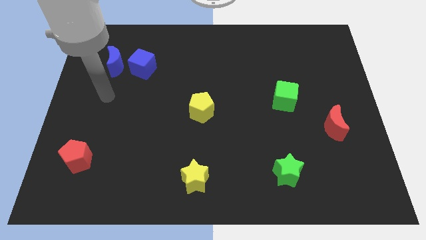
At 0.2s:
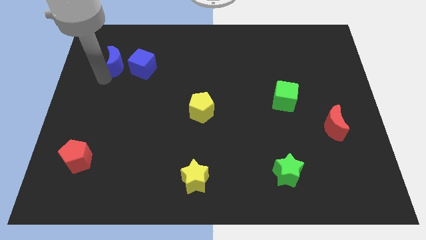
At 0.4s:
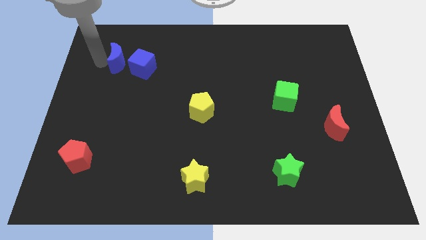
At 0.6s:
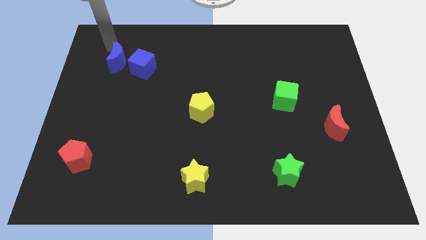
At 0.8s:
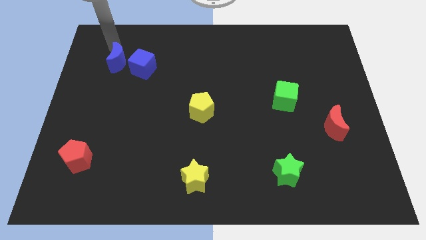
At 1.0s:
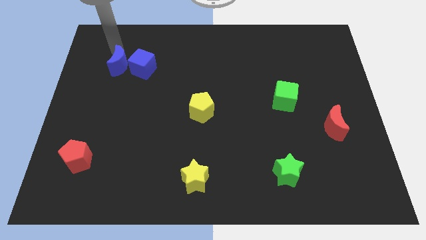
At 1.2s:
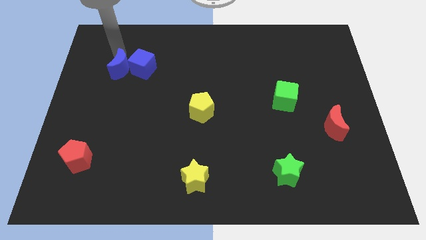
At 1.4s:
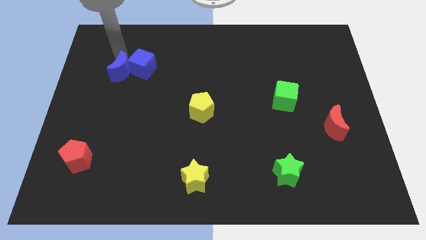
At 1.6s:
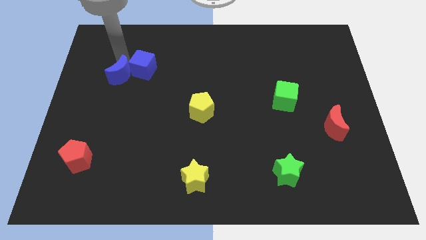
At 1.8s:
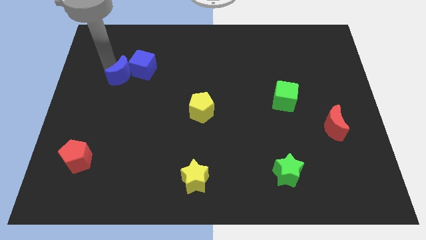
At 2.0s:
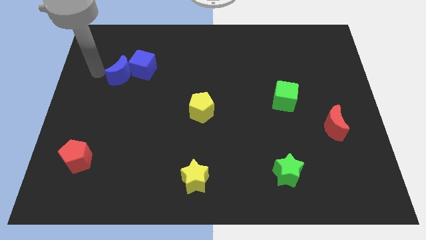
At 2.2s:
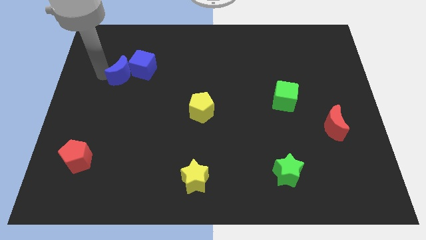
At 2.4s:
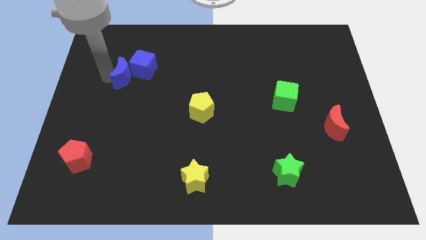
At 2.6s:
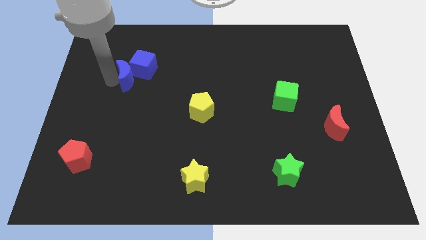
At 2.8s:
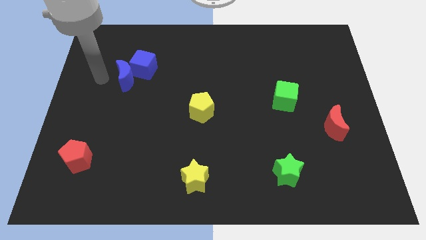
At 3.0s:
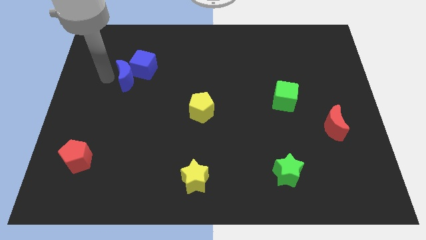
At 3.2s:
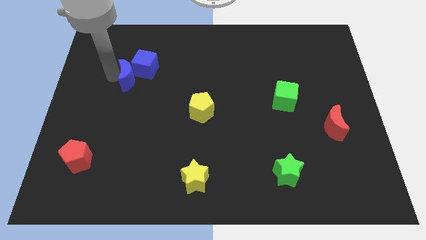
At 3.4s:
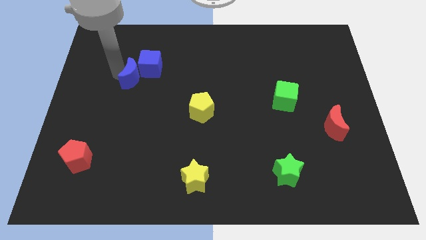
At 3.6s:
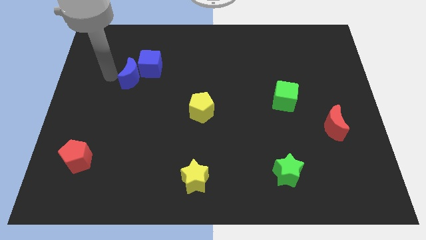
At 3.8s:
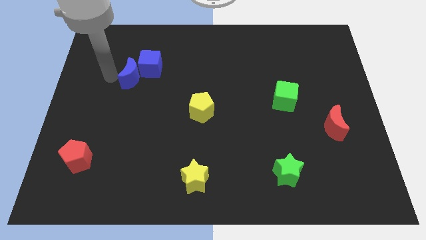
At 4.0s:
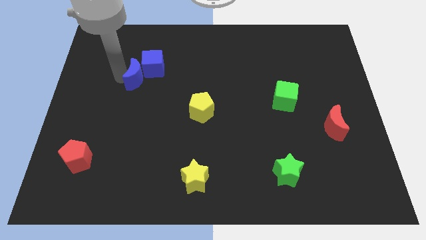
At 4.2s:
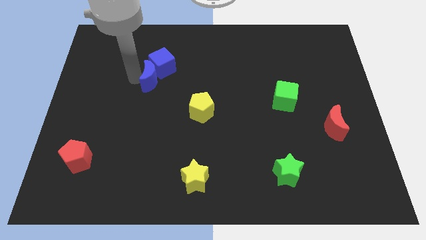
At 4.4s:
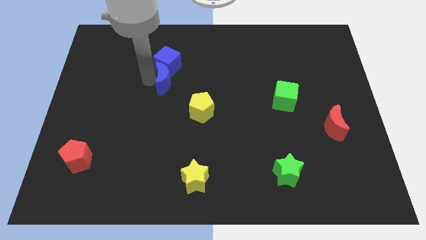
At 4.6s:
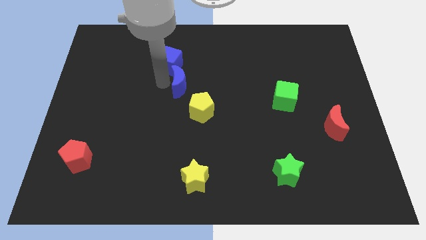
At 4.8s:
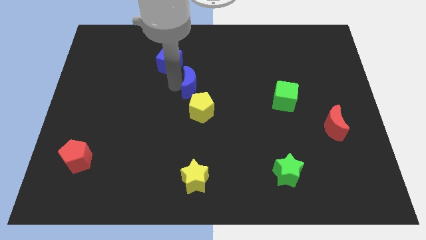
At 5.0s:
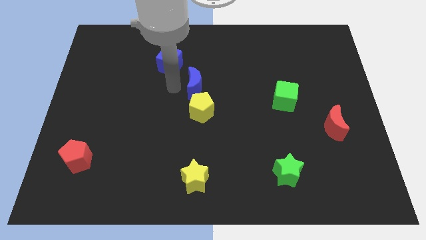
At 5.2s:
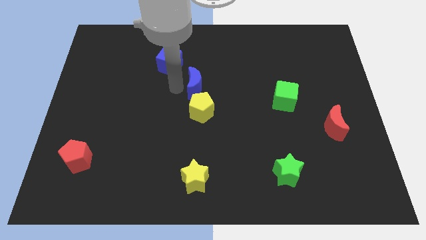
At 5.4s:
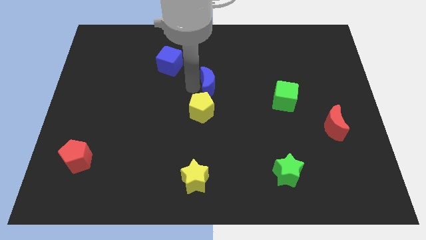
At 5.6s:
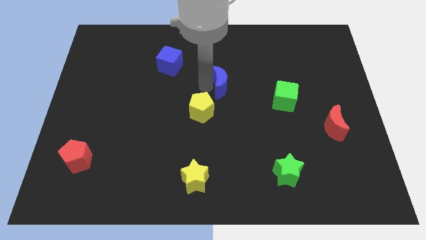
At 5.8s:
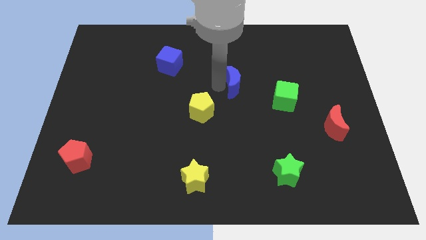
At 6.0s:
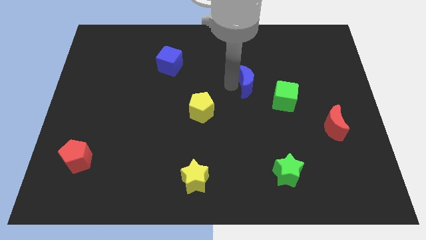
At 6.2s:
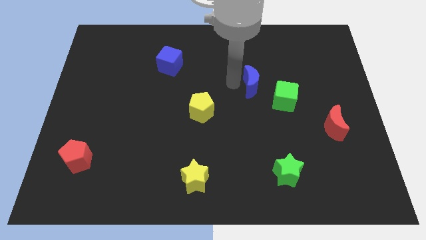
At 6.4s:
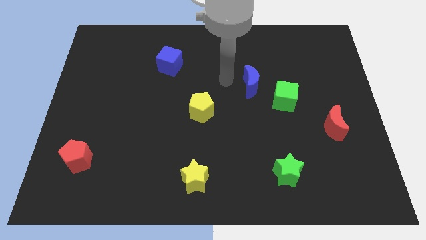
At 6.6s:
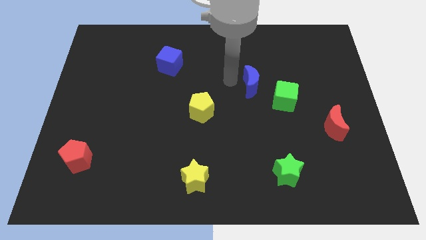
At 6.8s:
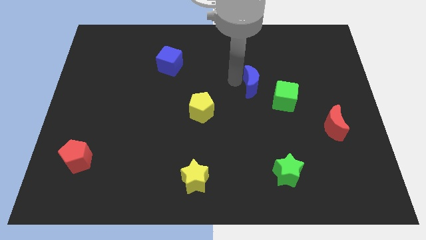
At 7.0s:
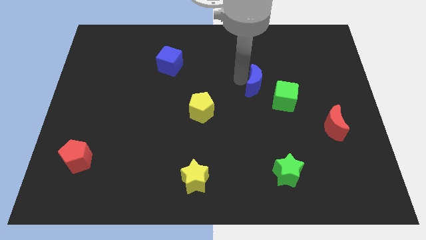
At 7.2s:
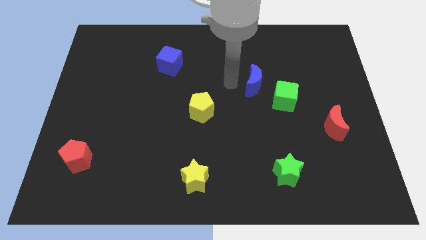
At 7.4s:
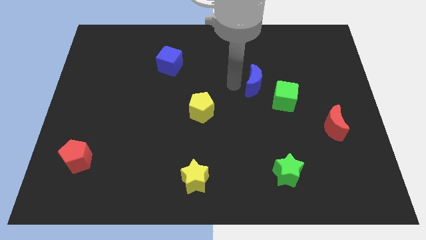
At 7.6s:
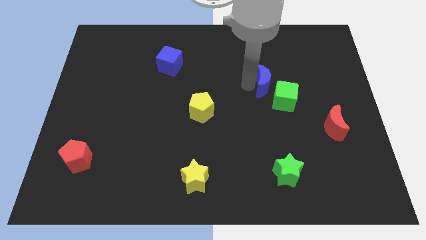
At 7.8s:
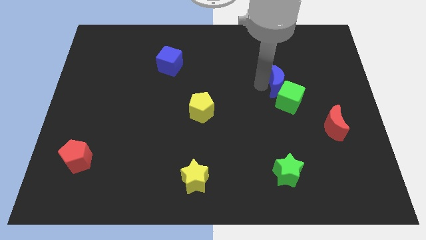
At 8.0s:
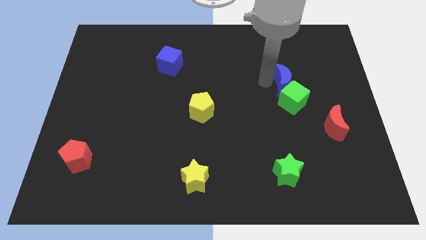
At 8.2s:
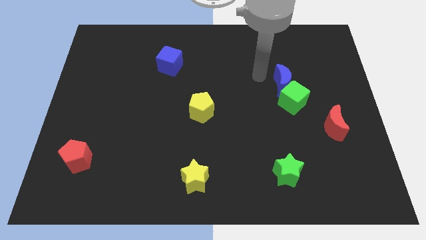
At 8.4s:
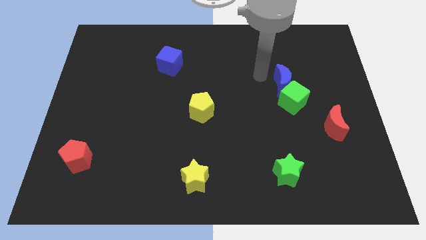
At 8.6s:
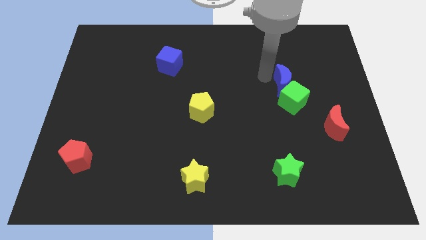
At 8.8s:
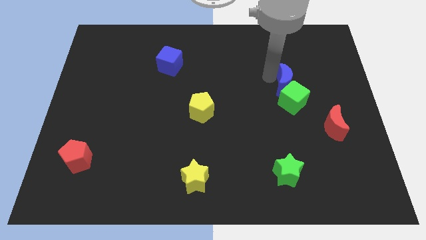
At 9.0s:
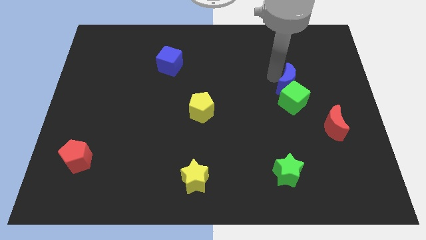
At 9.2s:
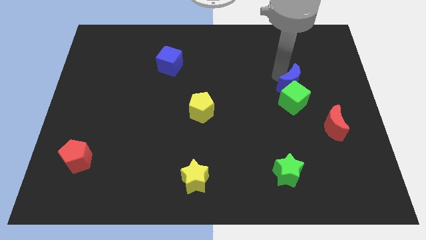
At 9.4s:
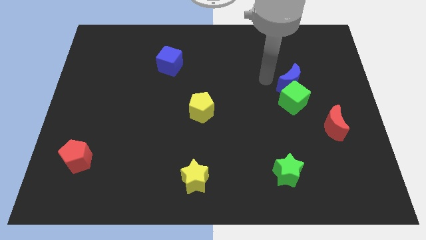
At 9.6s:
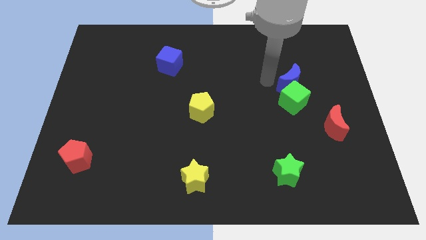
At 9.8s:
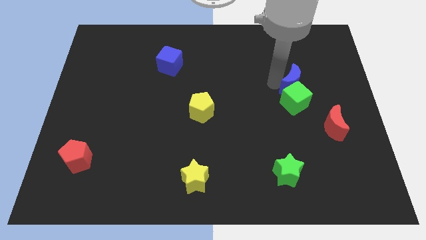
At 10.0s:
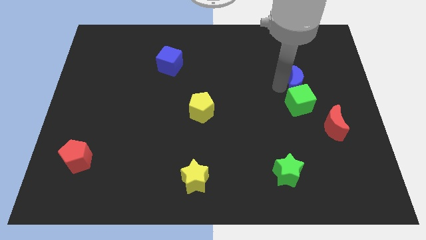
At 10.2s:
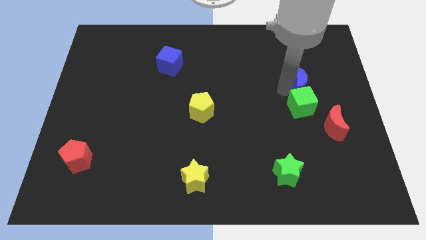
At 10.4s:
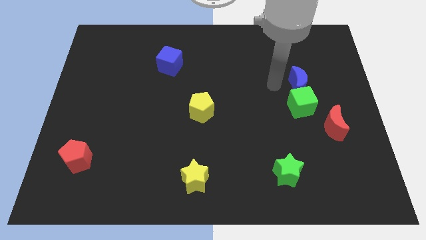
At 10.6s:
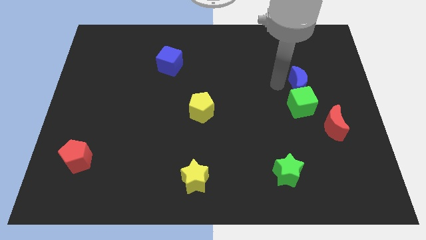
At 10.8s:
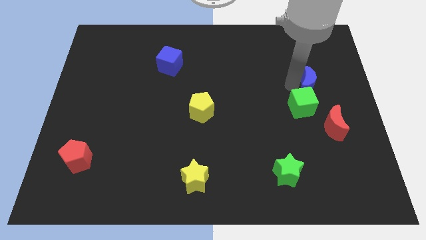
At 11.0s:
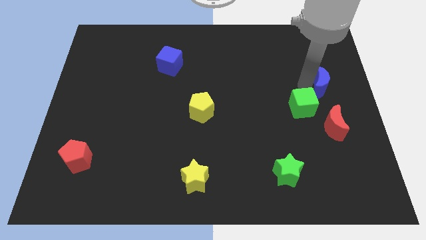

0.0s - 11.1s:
slide the blue moon to the right side

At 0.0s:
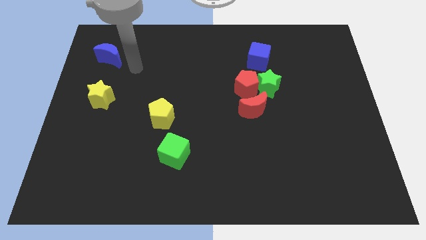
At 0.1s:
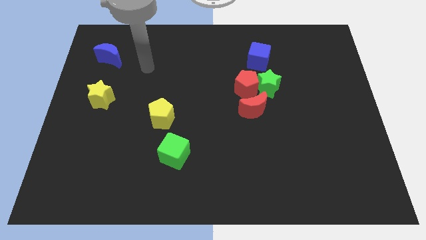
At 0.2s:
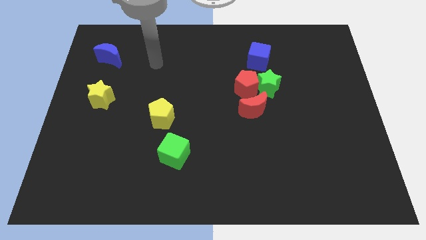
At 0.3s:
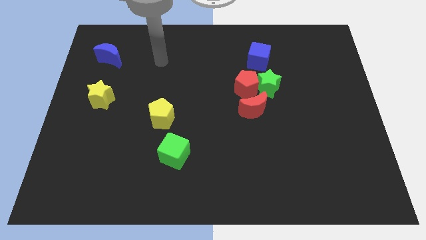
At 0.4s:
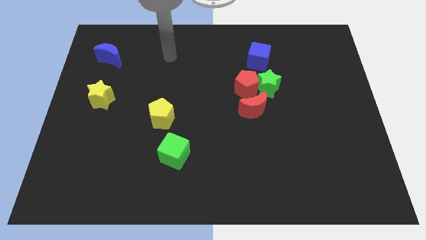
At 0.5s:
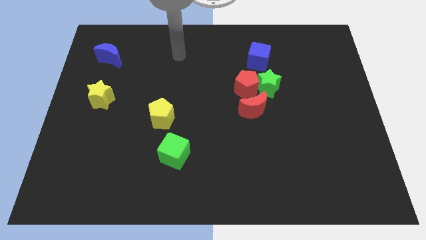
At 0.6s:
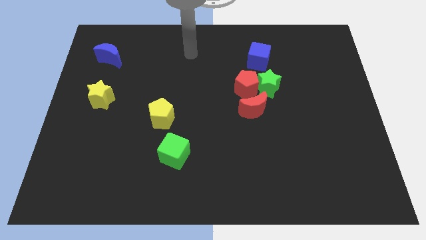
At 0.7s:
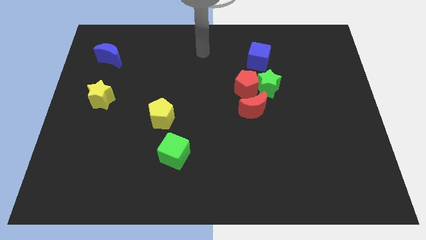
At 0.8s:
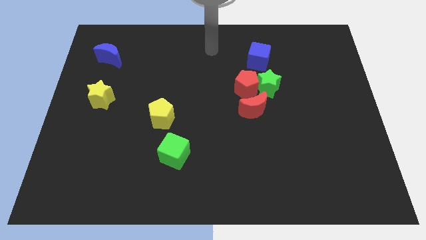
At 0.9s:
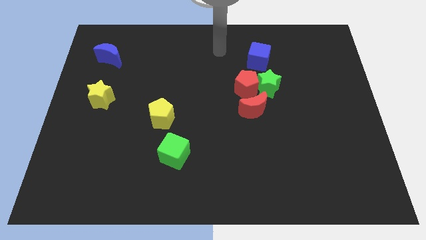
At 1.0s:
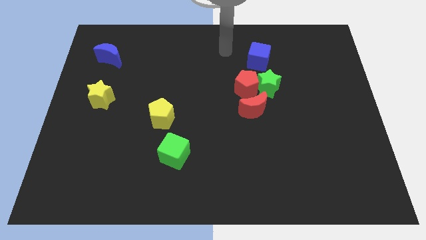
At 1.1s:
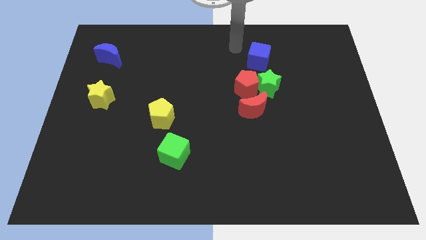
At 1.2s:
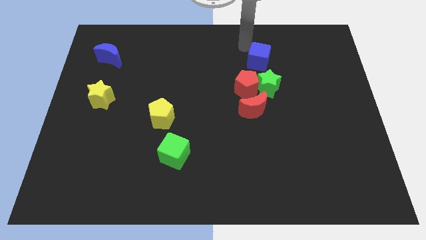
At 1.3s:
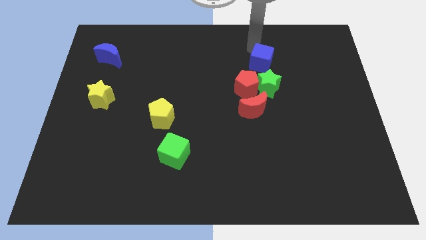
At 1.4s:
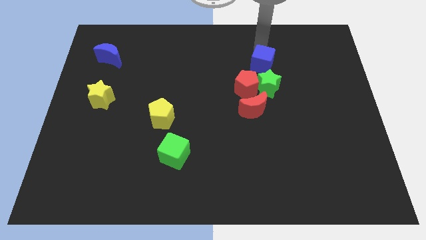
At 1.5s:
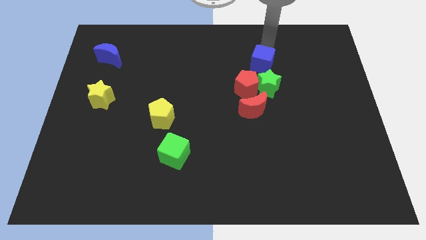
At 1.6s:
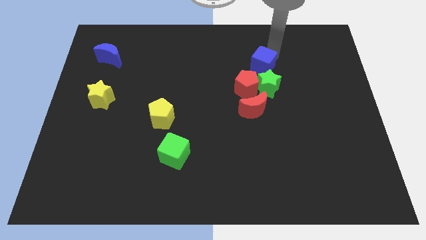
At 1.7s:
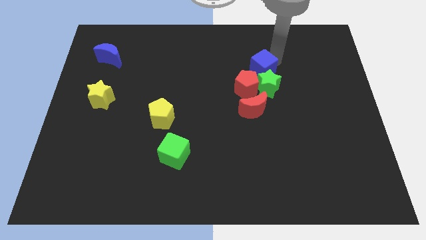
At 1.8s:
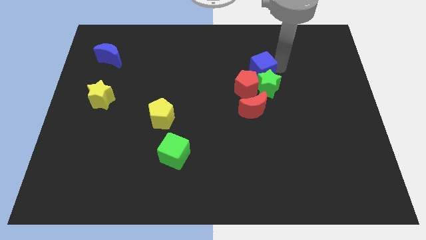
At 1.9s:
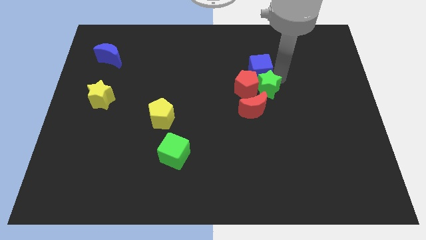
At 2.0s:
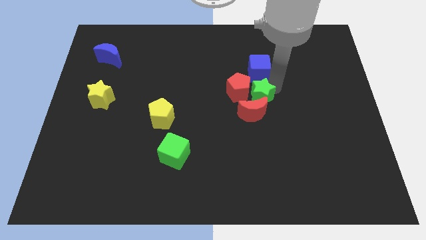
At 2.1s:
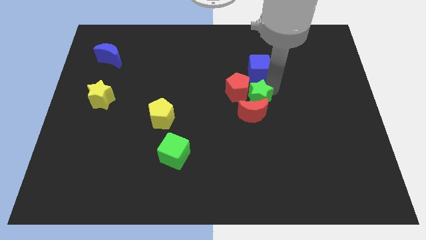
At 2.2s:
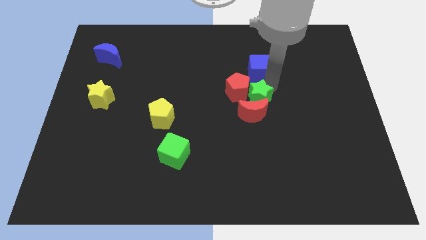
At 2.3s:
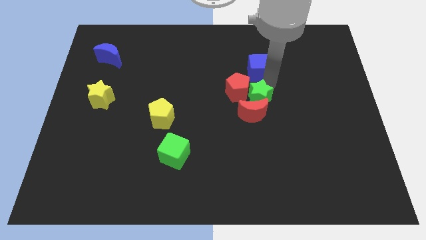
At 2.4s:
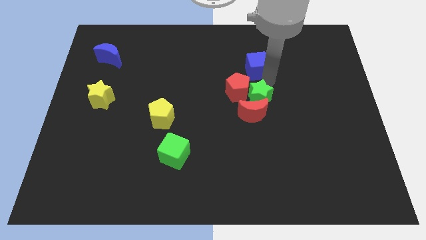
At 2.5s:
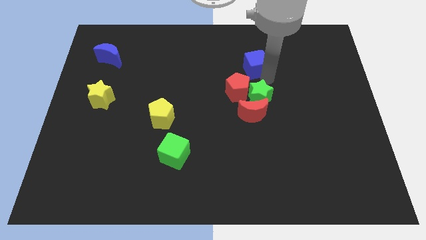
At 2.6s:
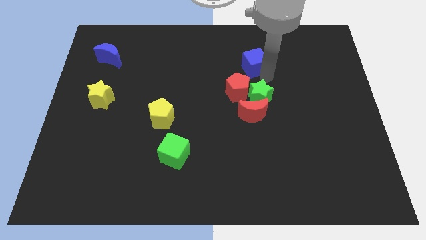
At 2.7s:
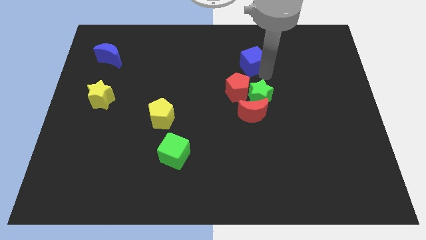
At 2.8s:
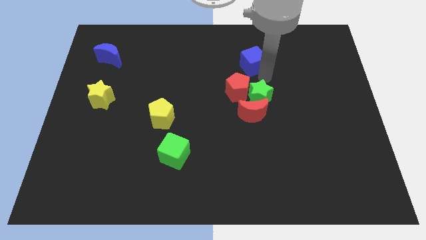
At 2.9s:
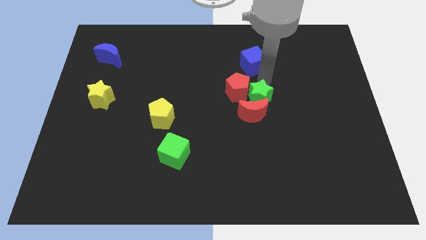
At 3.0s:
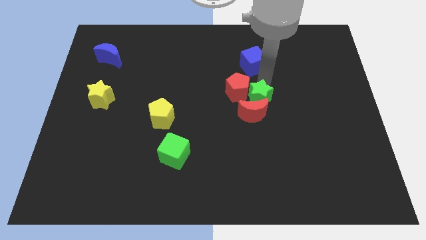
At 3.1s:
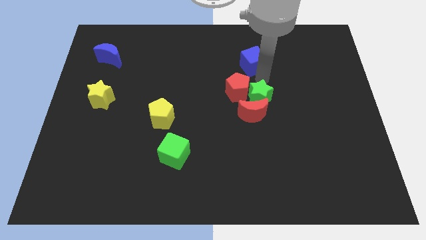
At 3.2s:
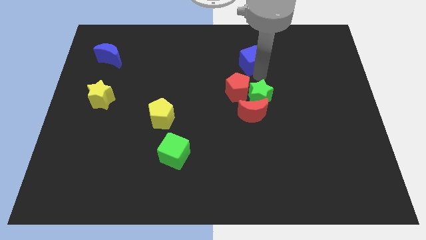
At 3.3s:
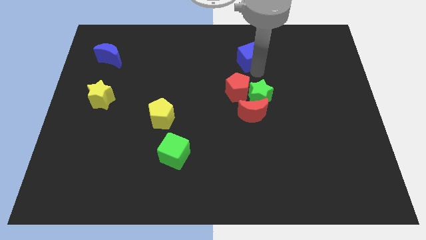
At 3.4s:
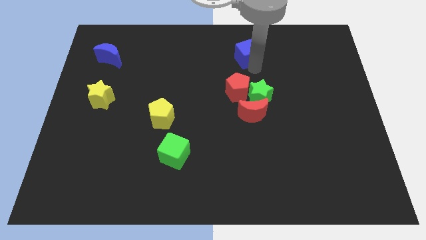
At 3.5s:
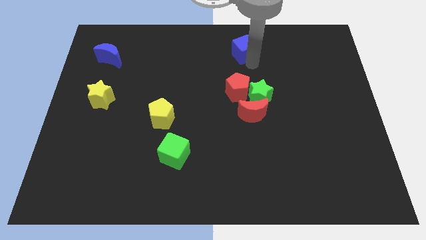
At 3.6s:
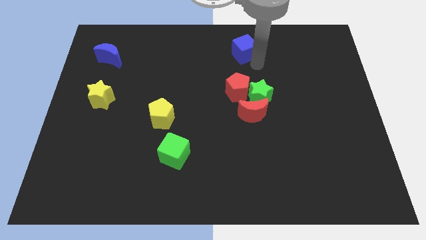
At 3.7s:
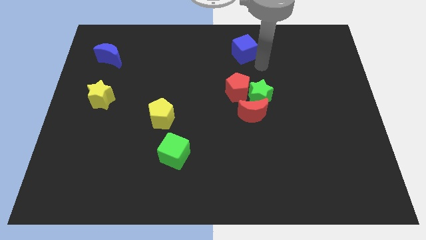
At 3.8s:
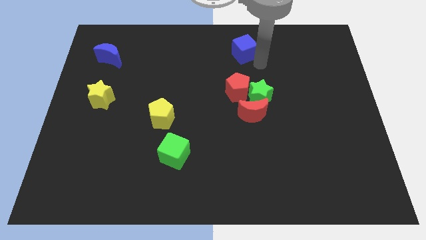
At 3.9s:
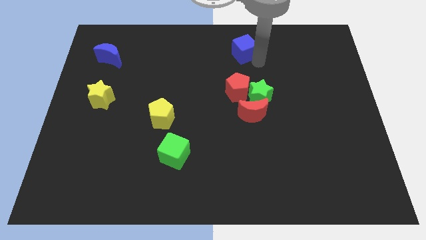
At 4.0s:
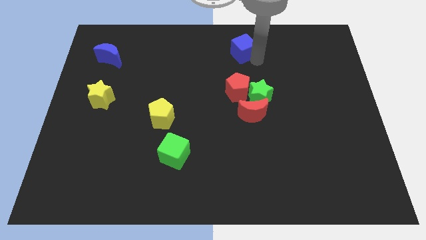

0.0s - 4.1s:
push the blue cube to the top side
